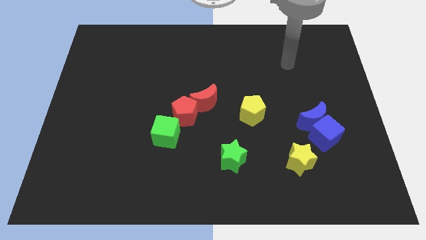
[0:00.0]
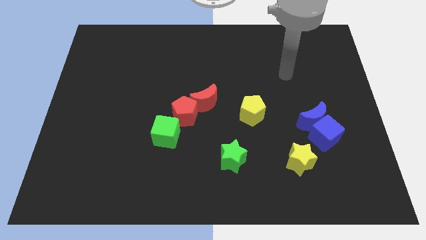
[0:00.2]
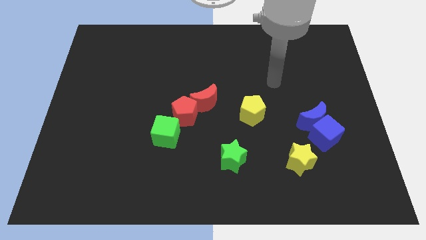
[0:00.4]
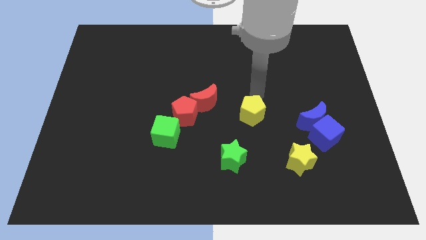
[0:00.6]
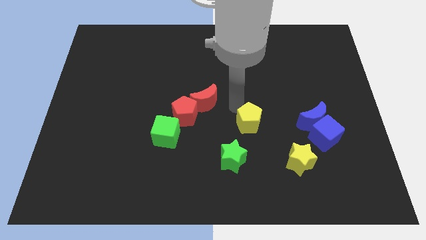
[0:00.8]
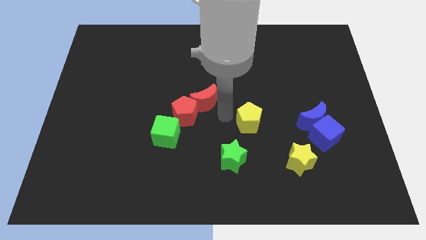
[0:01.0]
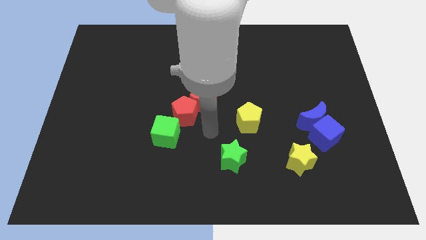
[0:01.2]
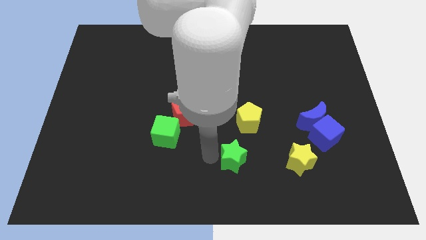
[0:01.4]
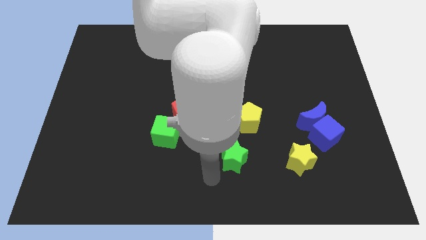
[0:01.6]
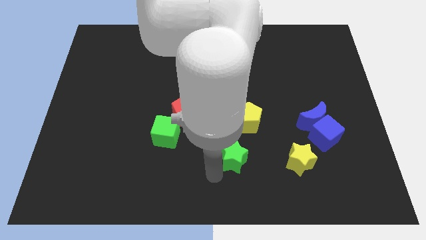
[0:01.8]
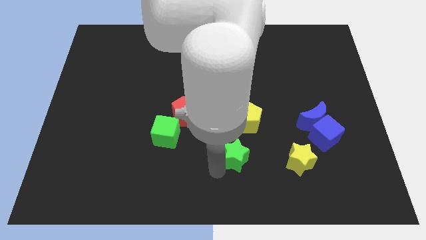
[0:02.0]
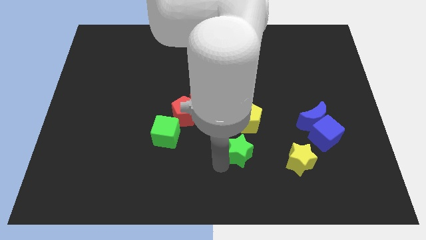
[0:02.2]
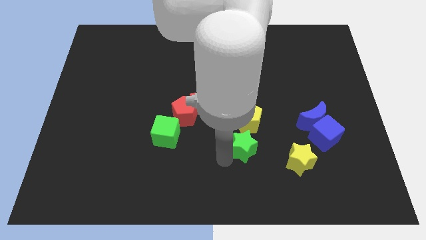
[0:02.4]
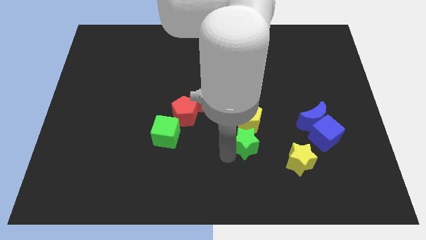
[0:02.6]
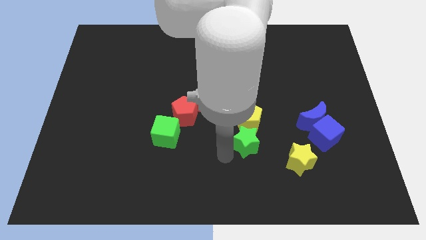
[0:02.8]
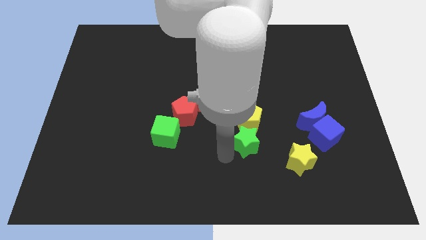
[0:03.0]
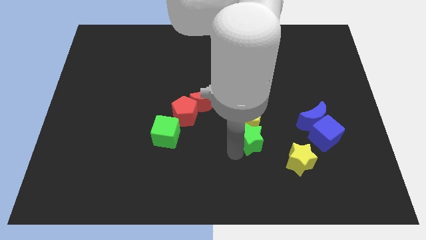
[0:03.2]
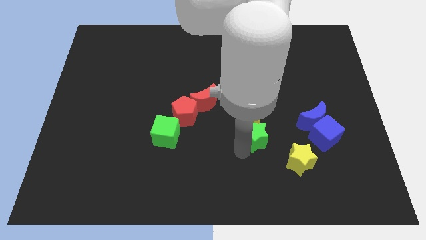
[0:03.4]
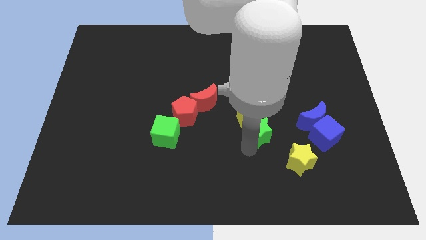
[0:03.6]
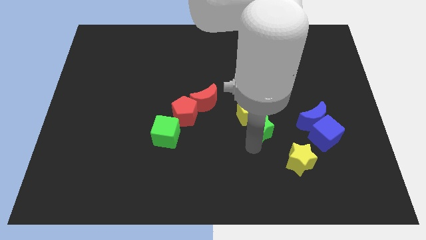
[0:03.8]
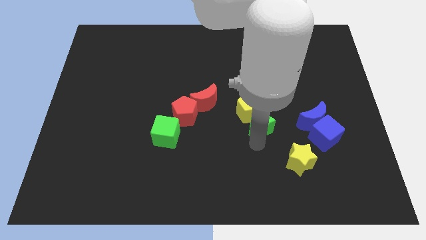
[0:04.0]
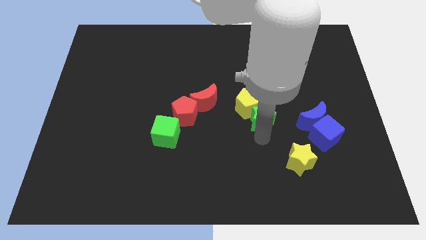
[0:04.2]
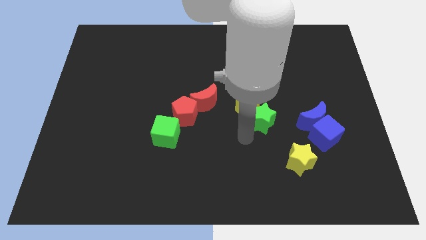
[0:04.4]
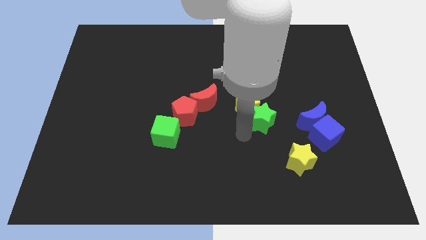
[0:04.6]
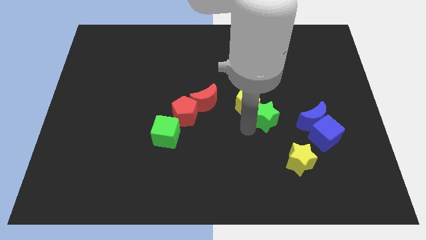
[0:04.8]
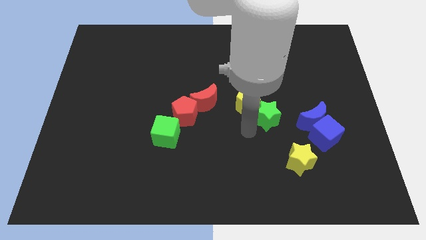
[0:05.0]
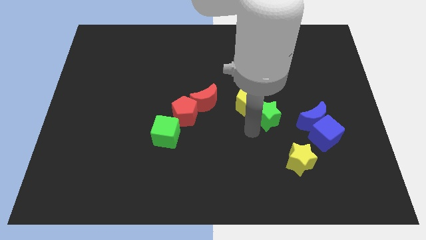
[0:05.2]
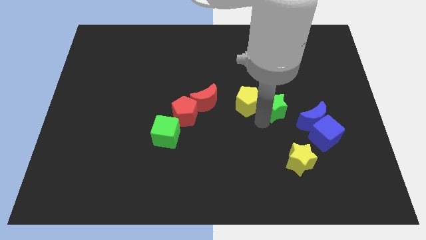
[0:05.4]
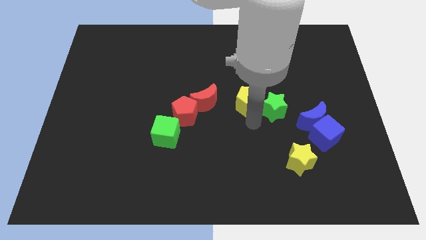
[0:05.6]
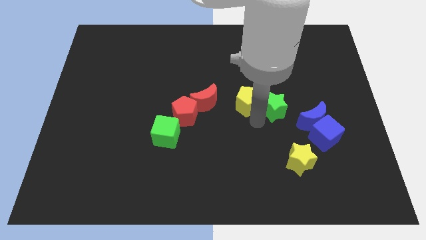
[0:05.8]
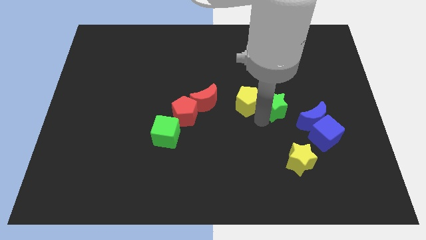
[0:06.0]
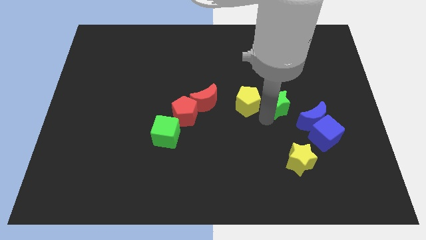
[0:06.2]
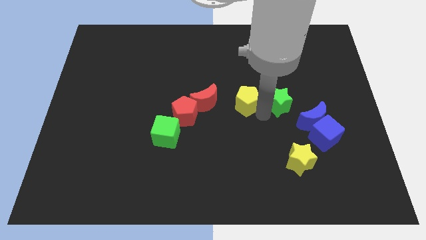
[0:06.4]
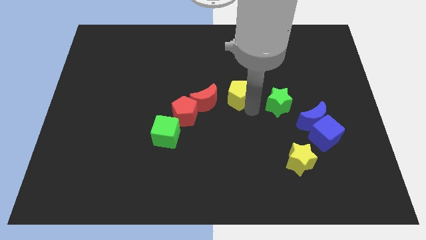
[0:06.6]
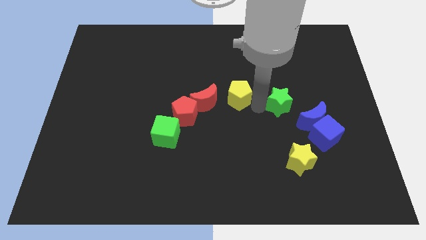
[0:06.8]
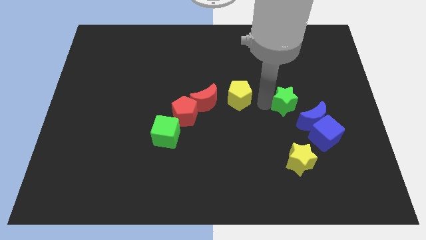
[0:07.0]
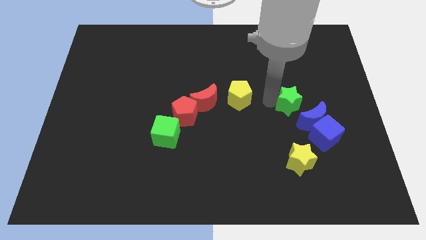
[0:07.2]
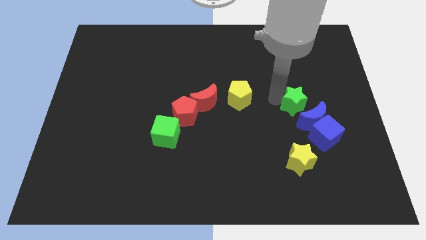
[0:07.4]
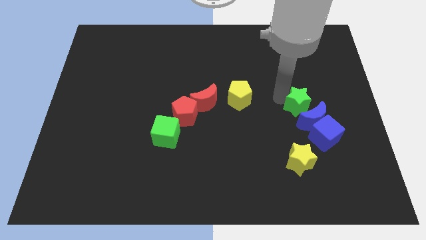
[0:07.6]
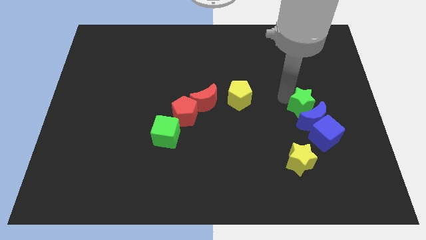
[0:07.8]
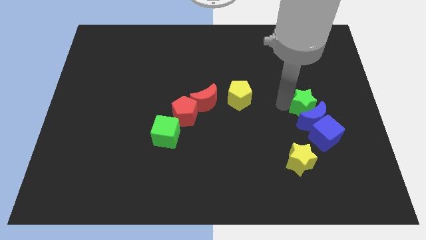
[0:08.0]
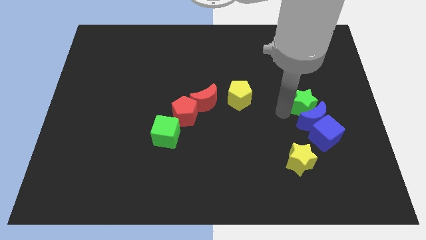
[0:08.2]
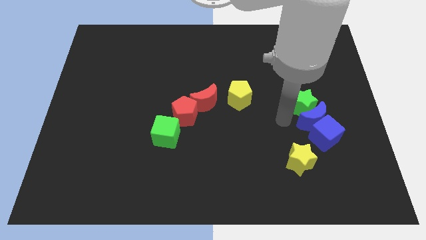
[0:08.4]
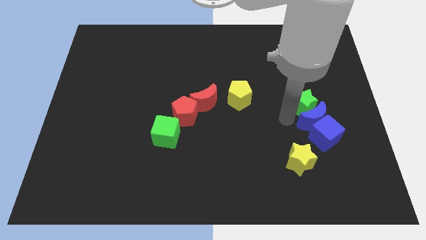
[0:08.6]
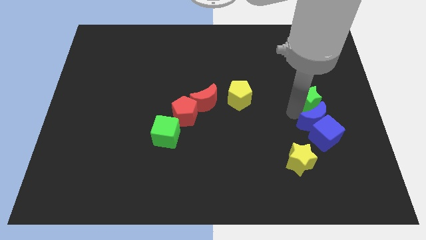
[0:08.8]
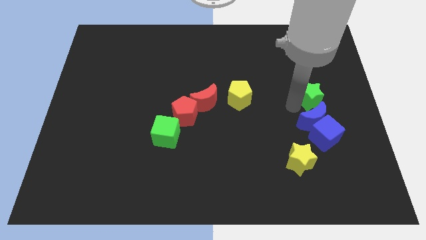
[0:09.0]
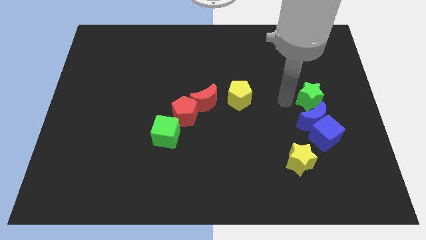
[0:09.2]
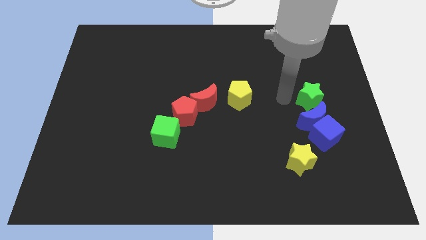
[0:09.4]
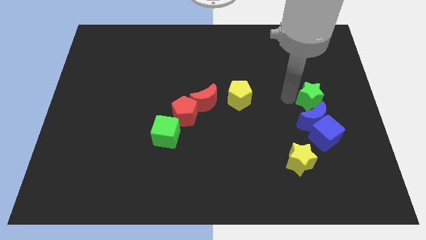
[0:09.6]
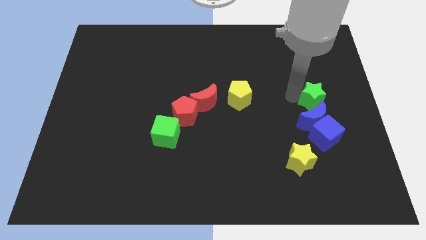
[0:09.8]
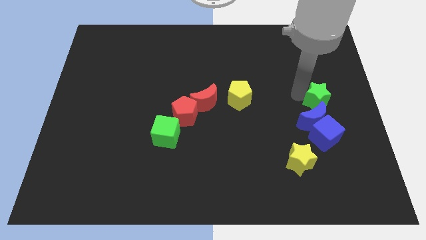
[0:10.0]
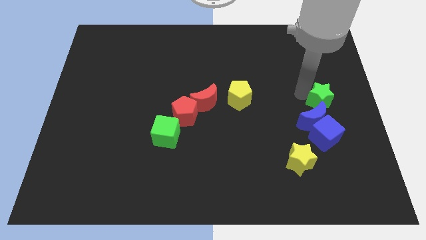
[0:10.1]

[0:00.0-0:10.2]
push the green star to the right side of the board

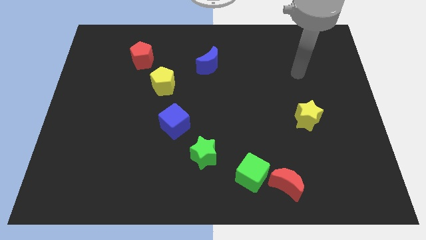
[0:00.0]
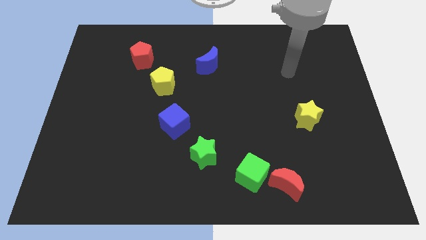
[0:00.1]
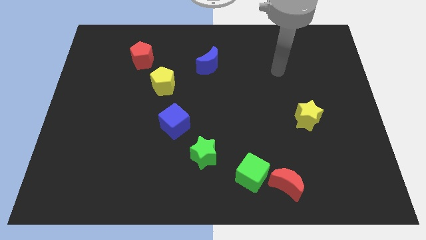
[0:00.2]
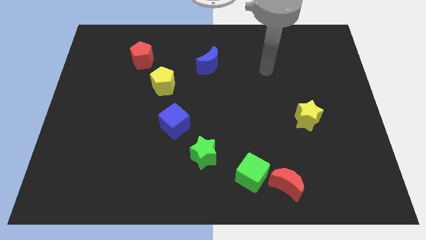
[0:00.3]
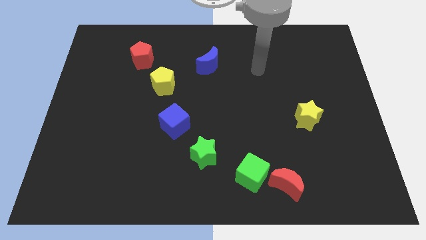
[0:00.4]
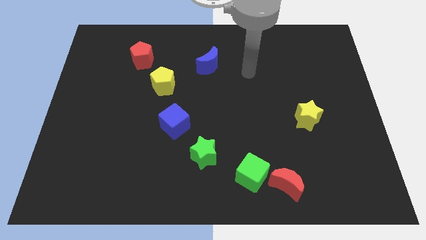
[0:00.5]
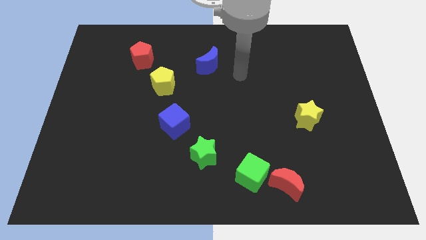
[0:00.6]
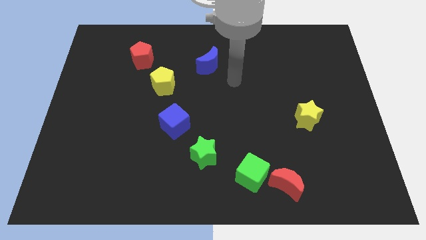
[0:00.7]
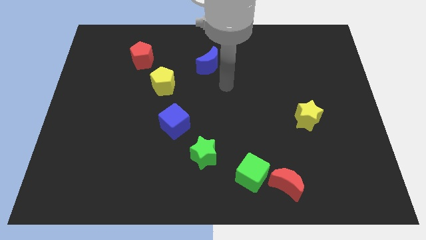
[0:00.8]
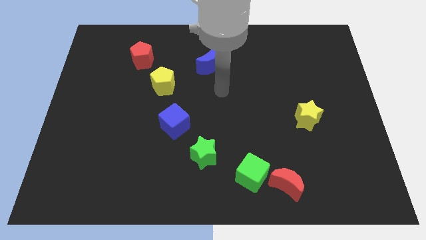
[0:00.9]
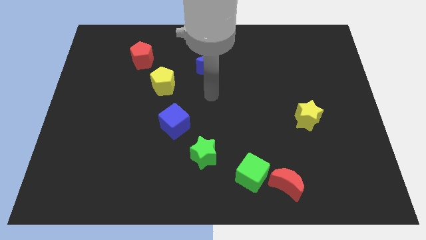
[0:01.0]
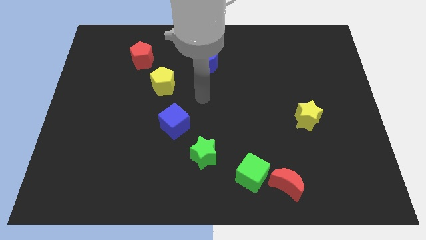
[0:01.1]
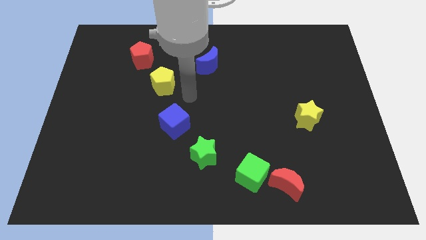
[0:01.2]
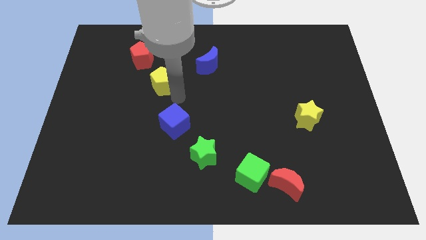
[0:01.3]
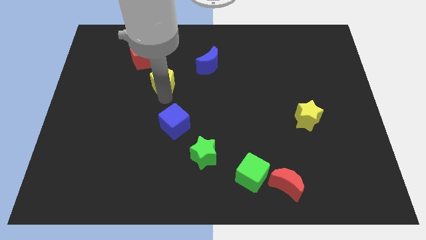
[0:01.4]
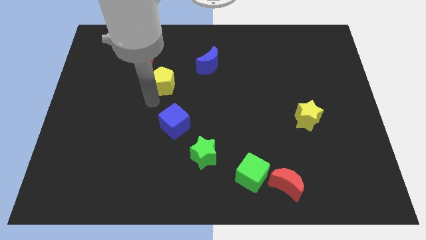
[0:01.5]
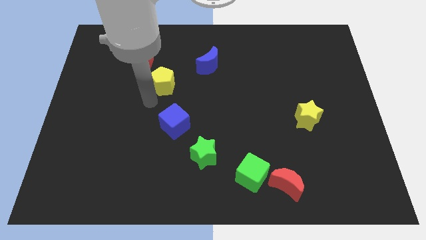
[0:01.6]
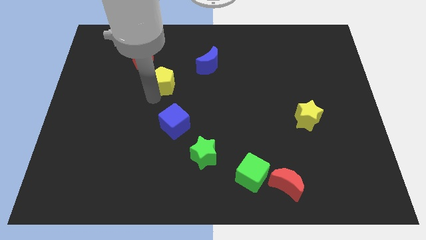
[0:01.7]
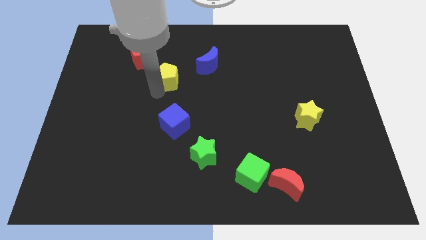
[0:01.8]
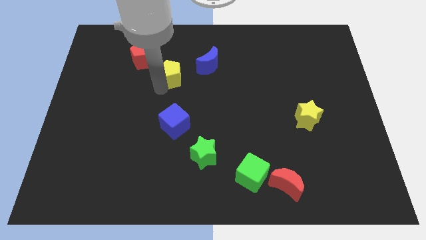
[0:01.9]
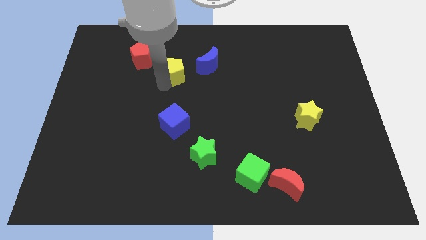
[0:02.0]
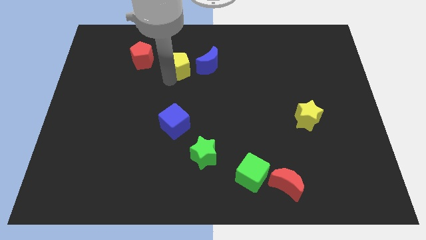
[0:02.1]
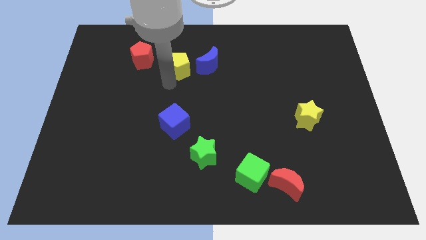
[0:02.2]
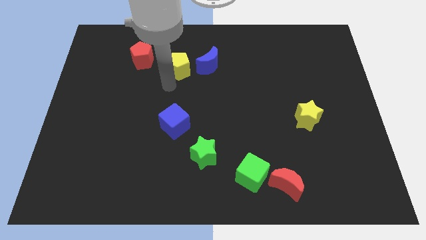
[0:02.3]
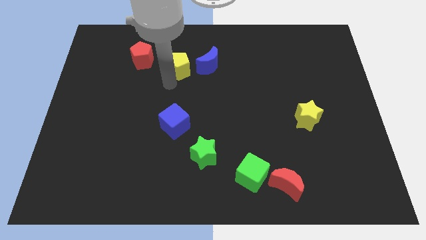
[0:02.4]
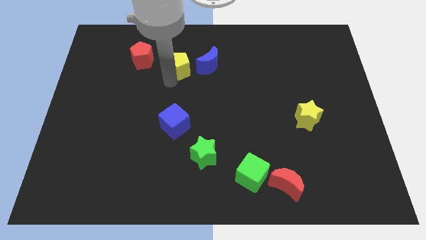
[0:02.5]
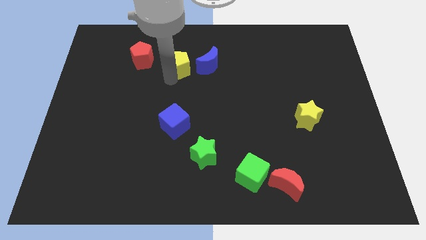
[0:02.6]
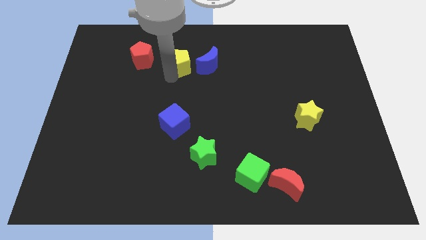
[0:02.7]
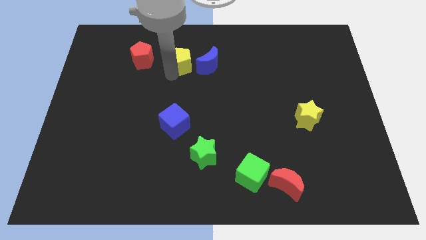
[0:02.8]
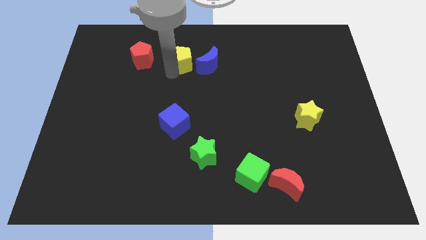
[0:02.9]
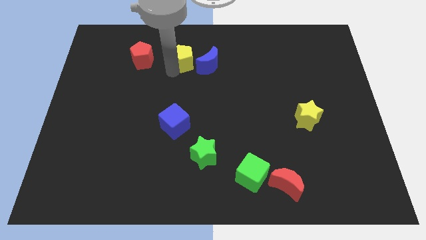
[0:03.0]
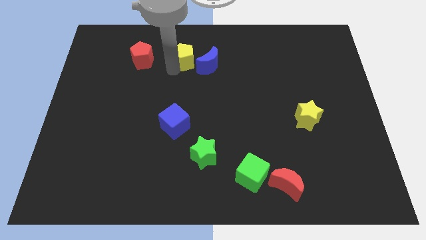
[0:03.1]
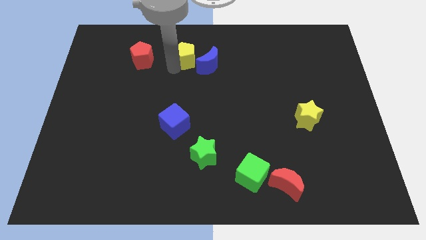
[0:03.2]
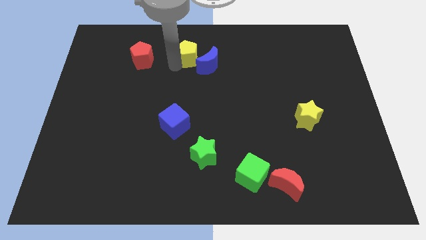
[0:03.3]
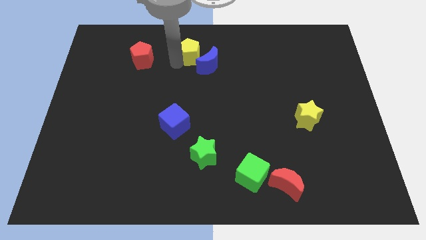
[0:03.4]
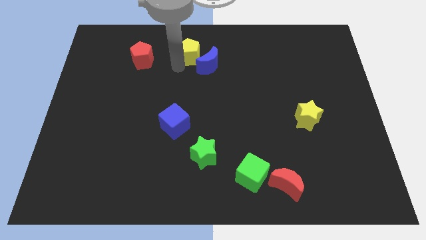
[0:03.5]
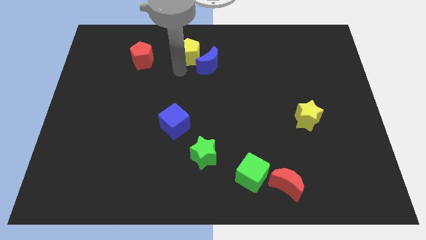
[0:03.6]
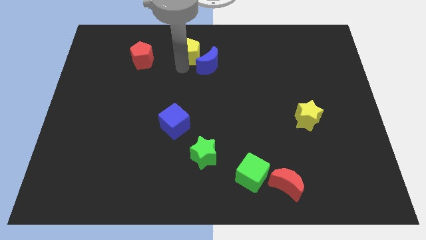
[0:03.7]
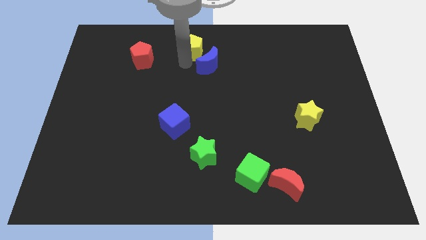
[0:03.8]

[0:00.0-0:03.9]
move the yellow pentagon to the towards your base
